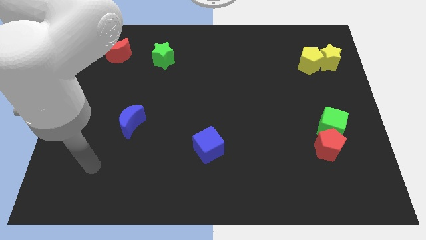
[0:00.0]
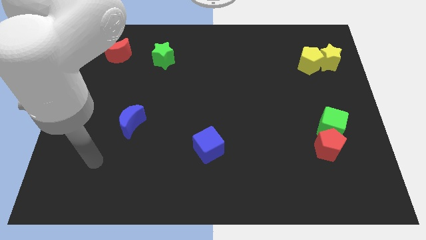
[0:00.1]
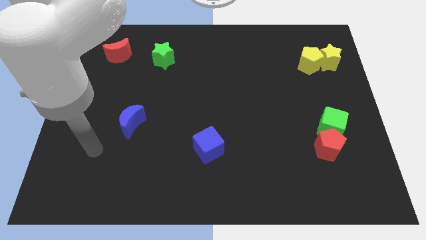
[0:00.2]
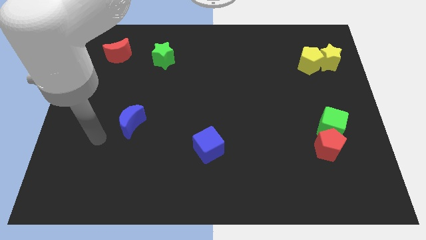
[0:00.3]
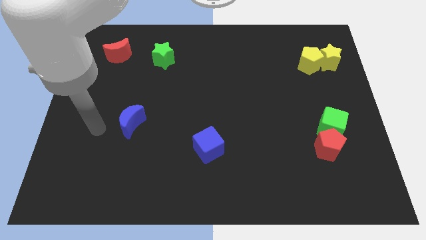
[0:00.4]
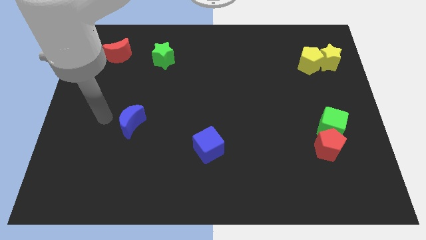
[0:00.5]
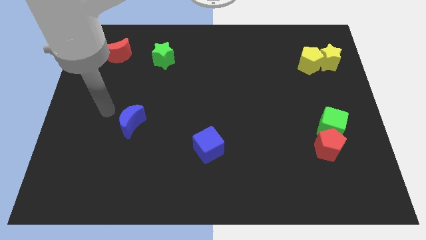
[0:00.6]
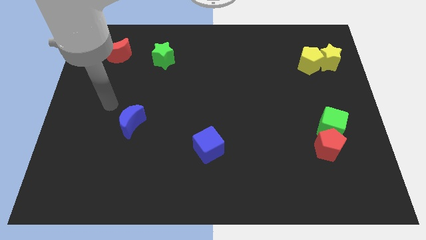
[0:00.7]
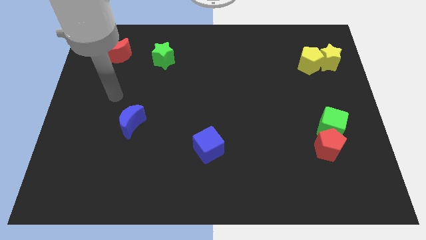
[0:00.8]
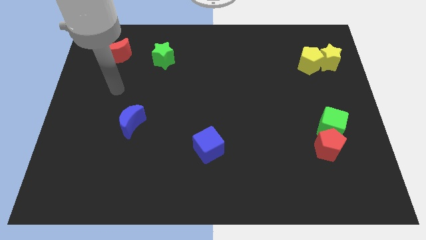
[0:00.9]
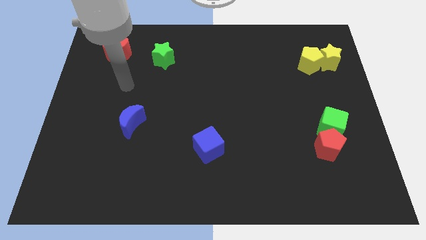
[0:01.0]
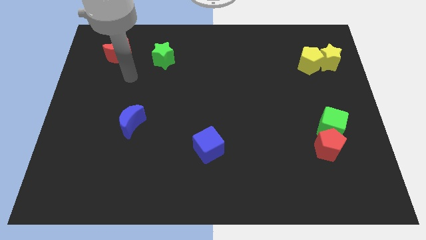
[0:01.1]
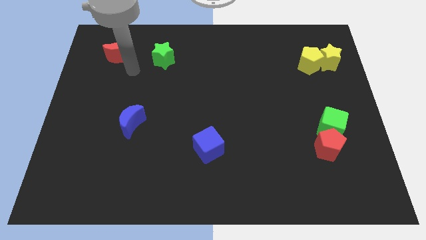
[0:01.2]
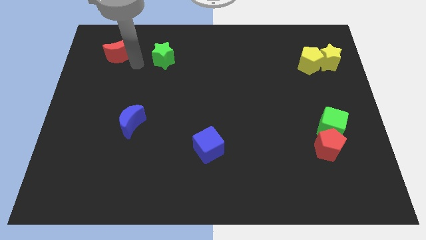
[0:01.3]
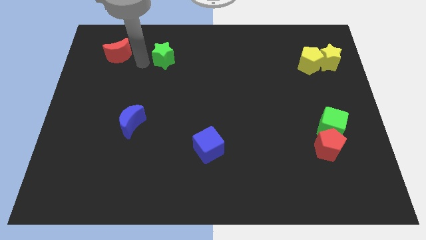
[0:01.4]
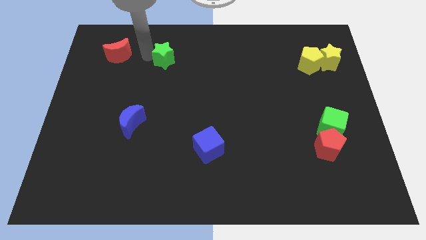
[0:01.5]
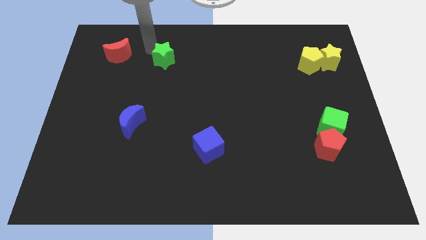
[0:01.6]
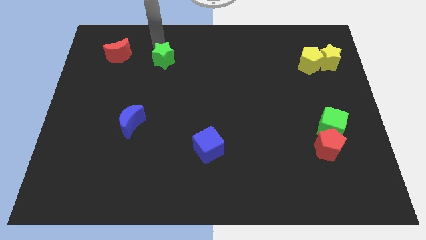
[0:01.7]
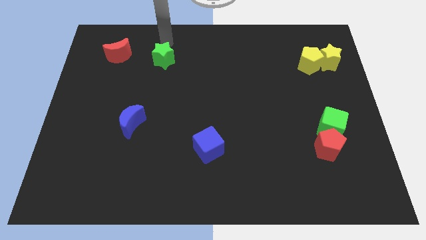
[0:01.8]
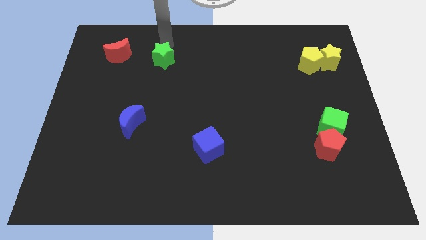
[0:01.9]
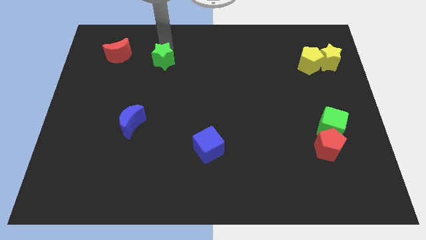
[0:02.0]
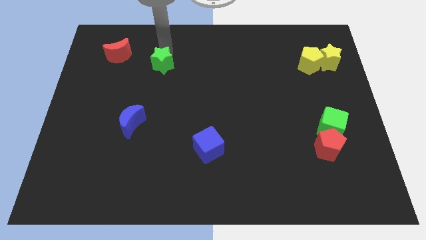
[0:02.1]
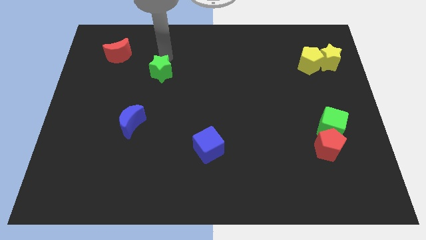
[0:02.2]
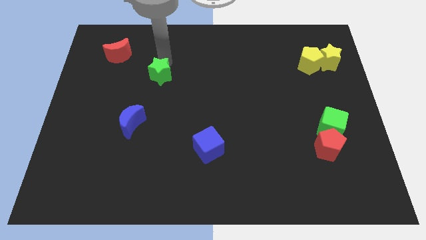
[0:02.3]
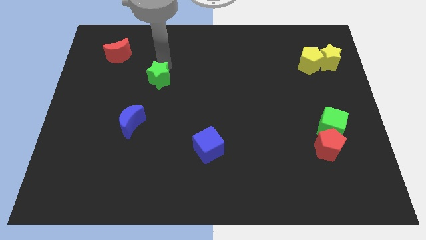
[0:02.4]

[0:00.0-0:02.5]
slightly push the green star down

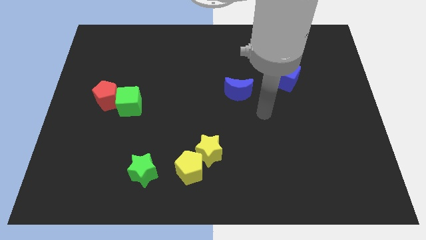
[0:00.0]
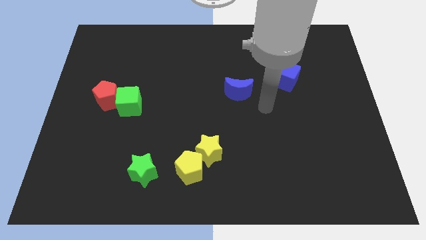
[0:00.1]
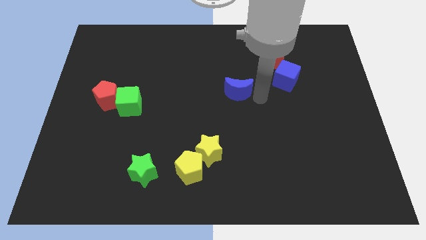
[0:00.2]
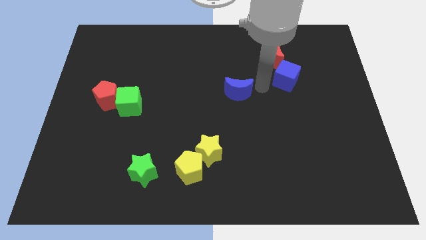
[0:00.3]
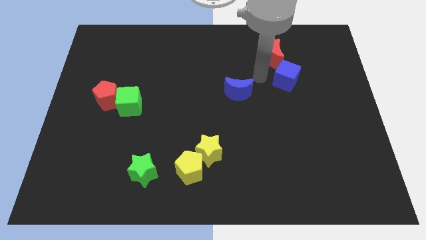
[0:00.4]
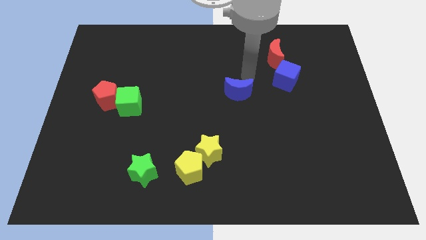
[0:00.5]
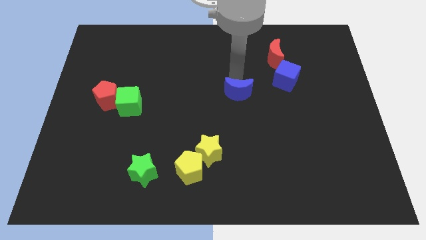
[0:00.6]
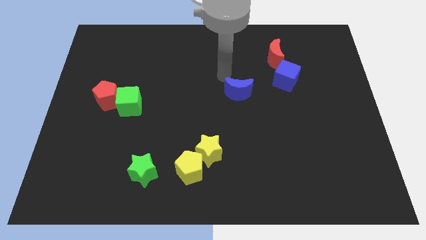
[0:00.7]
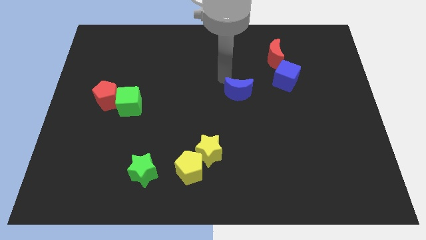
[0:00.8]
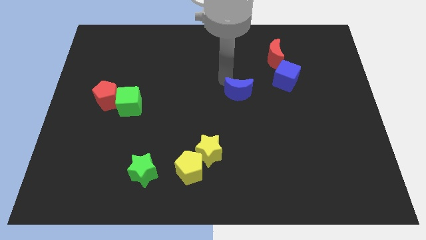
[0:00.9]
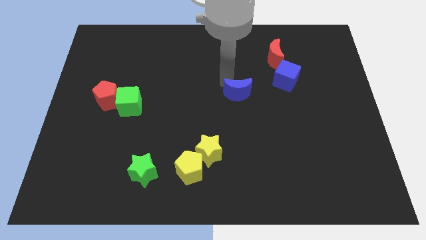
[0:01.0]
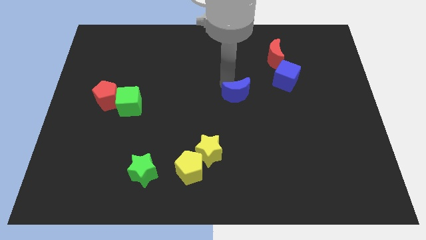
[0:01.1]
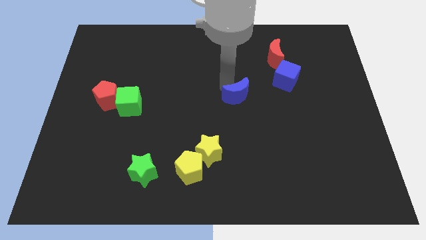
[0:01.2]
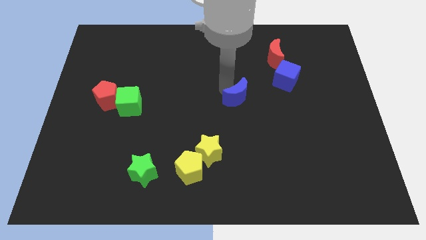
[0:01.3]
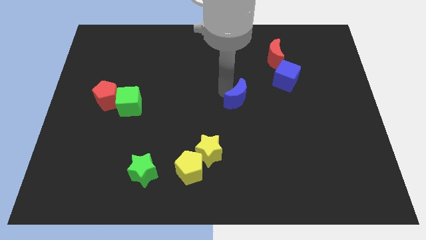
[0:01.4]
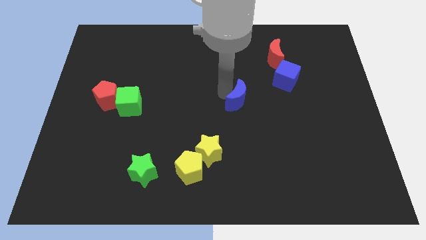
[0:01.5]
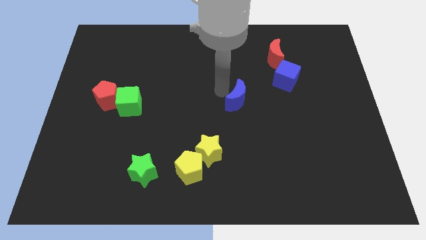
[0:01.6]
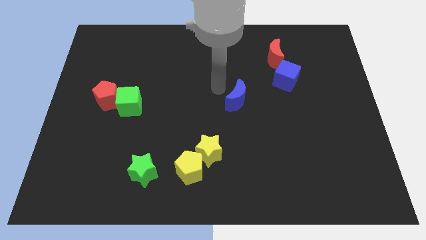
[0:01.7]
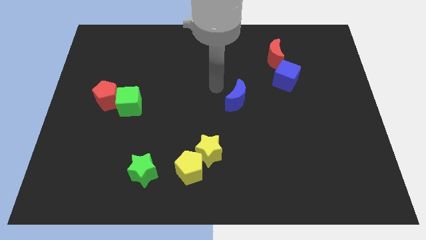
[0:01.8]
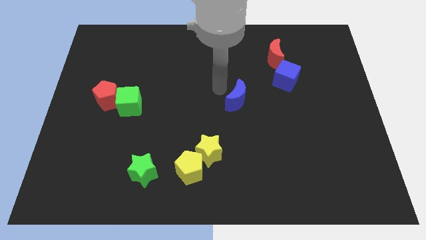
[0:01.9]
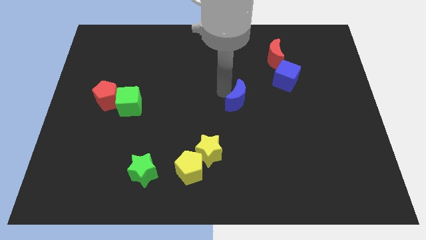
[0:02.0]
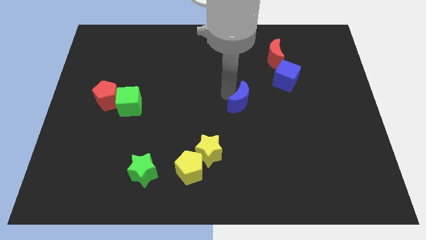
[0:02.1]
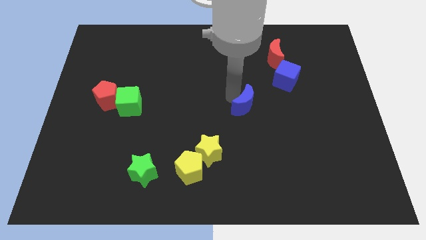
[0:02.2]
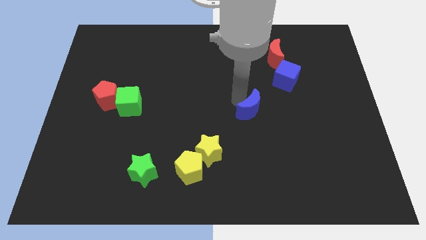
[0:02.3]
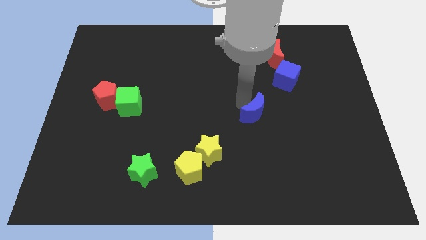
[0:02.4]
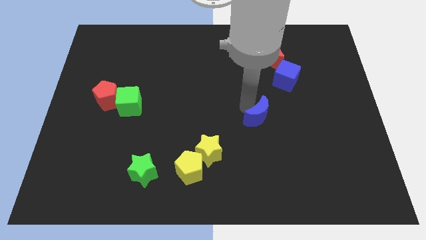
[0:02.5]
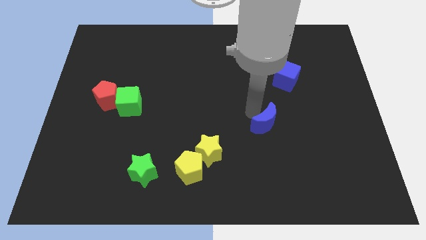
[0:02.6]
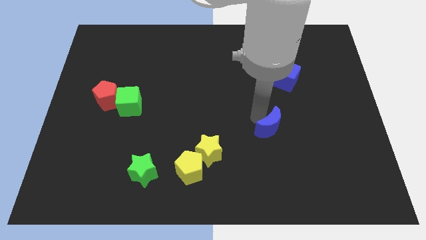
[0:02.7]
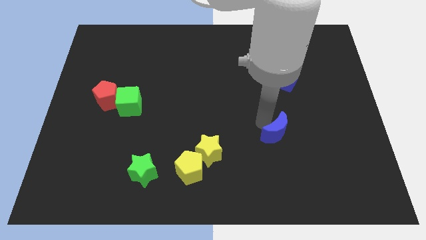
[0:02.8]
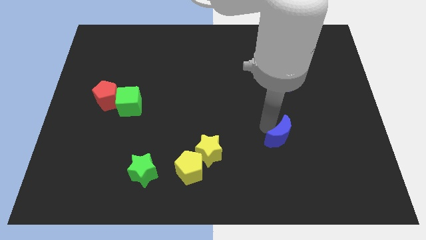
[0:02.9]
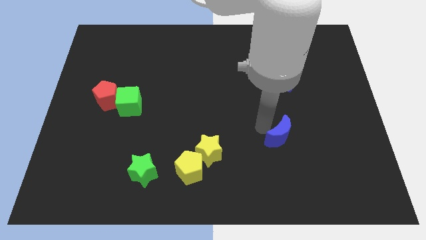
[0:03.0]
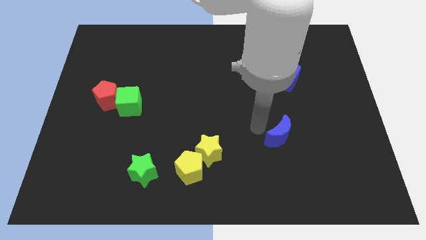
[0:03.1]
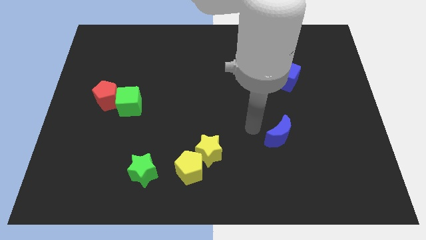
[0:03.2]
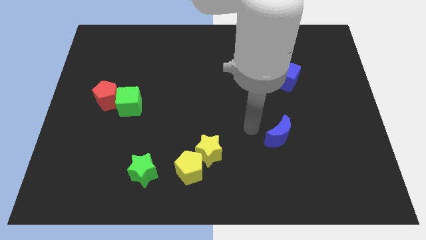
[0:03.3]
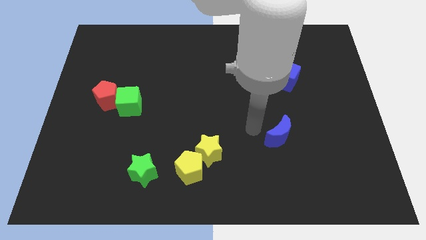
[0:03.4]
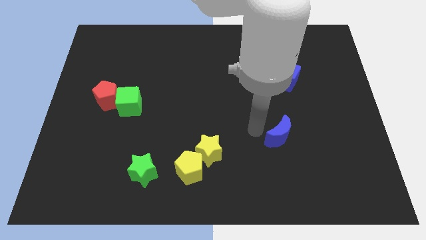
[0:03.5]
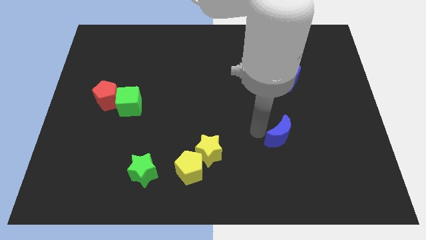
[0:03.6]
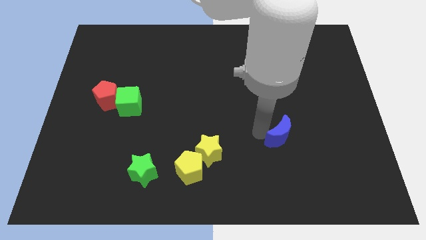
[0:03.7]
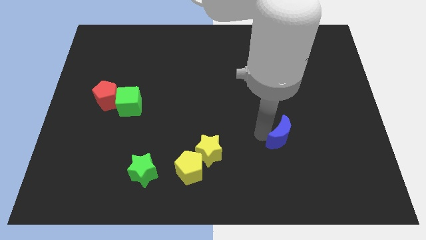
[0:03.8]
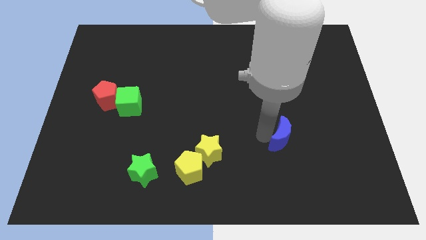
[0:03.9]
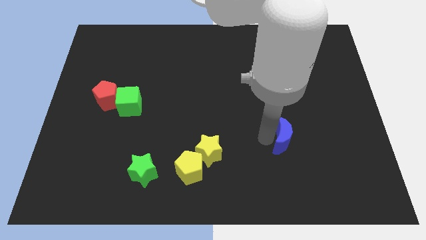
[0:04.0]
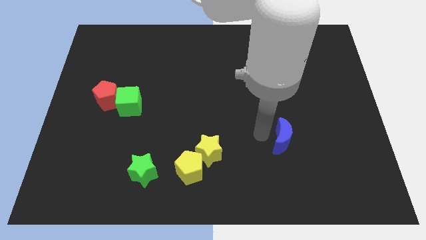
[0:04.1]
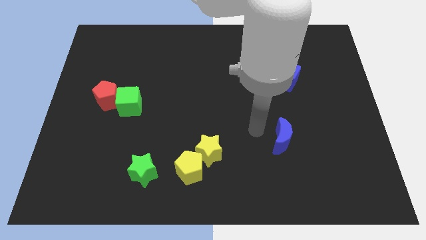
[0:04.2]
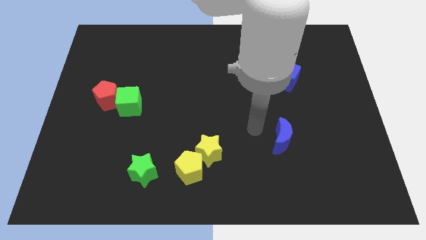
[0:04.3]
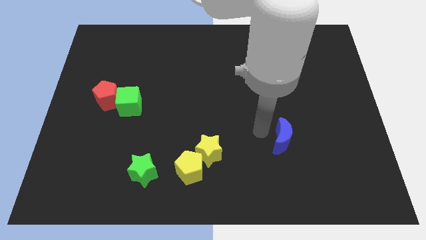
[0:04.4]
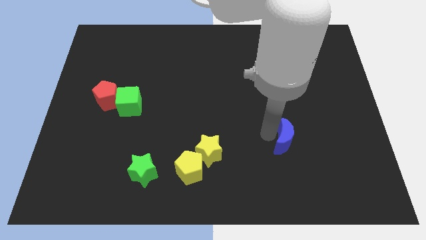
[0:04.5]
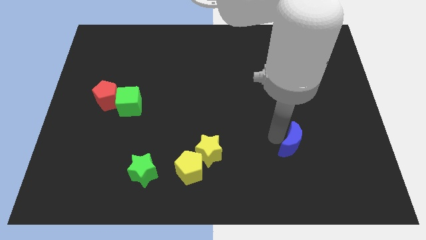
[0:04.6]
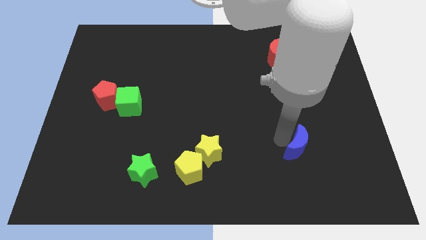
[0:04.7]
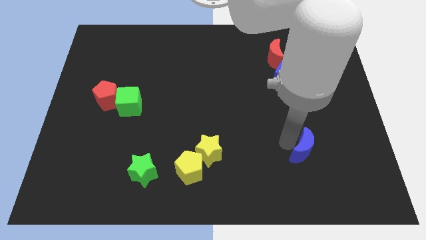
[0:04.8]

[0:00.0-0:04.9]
push the blue moon downwards and right diagonally

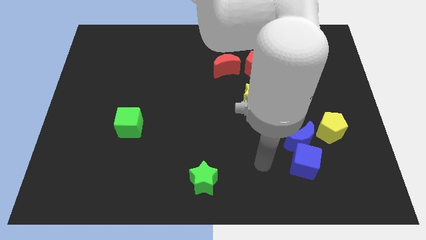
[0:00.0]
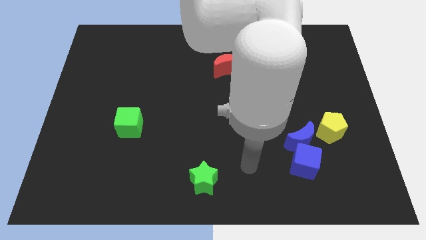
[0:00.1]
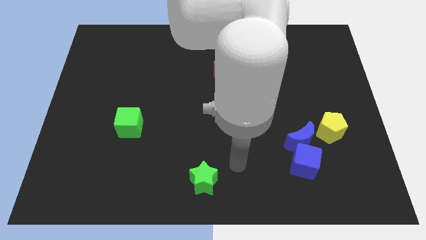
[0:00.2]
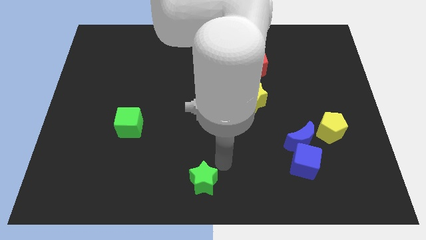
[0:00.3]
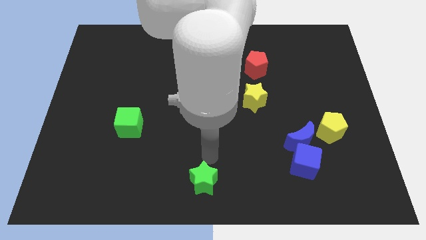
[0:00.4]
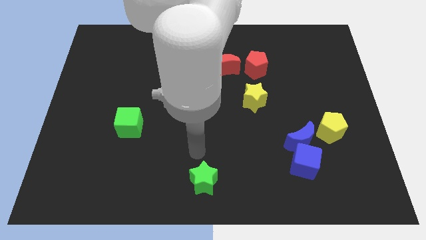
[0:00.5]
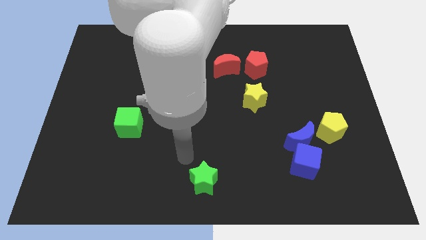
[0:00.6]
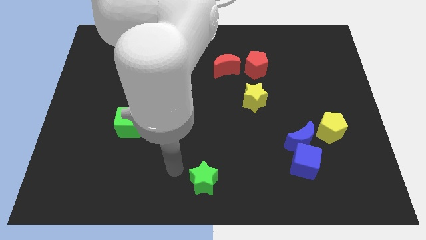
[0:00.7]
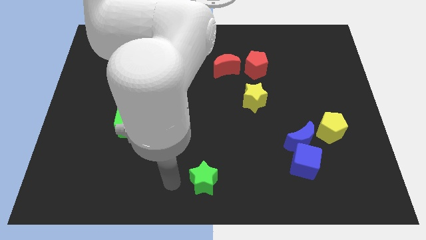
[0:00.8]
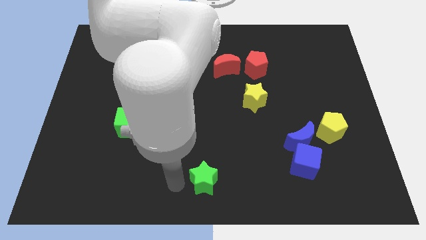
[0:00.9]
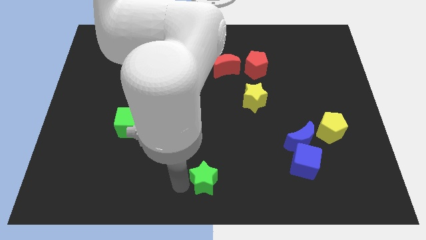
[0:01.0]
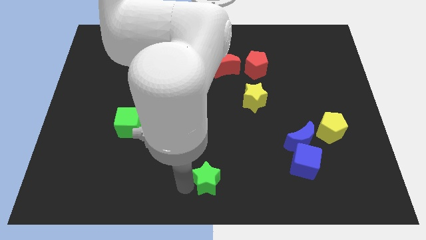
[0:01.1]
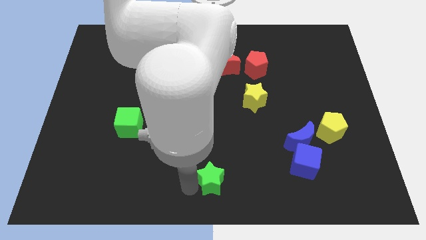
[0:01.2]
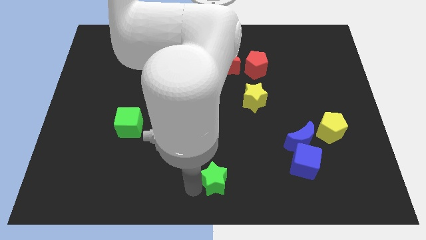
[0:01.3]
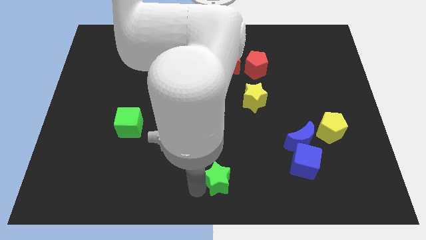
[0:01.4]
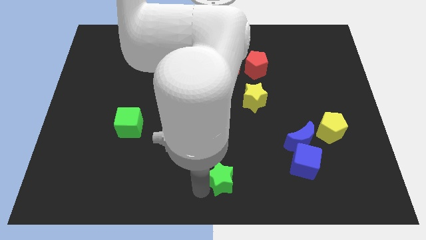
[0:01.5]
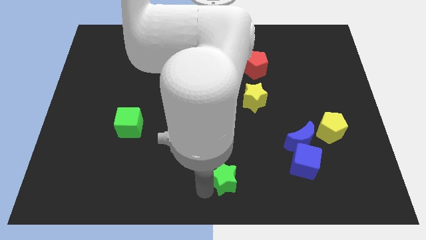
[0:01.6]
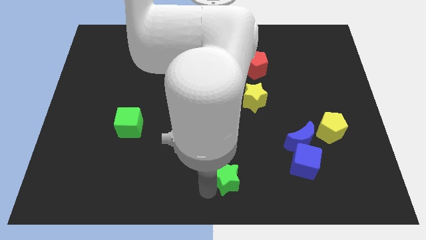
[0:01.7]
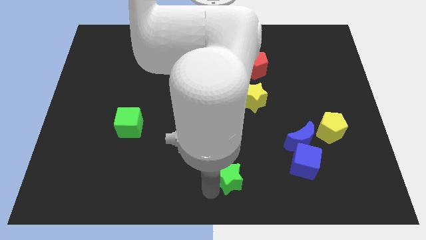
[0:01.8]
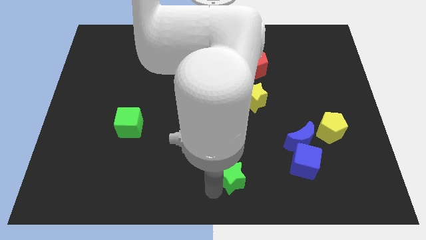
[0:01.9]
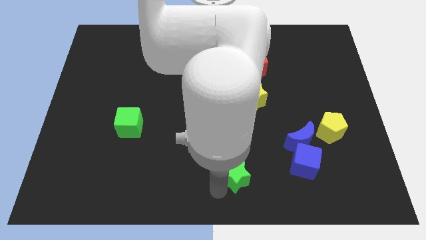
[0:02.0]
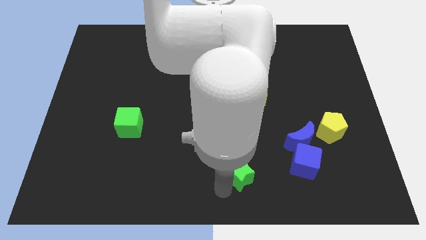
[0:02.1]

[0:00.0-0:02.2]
slide the green star to the right a little
